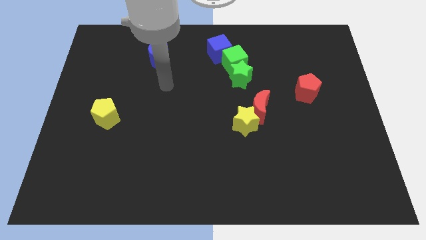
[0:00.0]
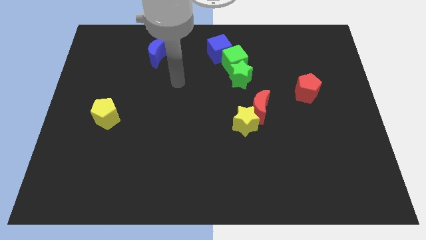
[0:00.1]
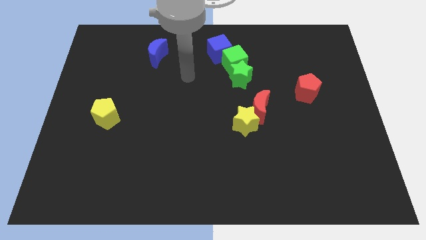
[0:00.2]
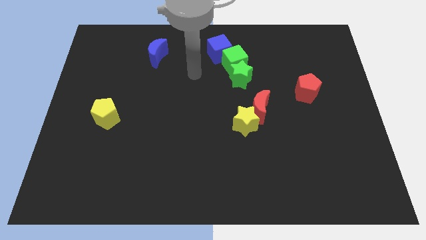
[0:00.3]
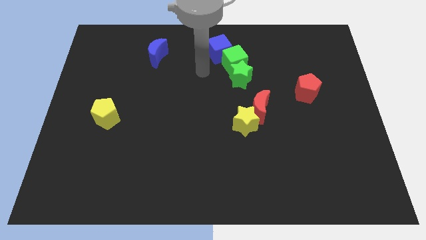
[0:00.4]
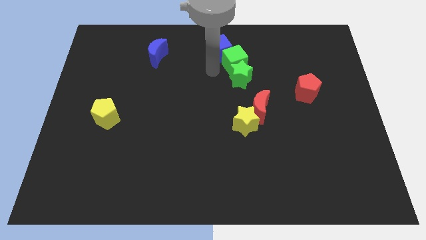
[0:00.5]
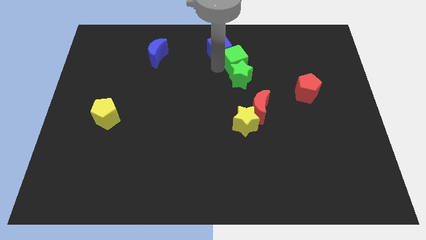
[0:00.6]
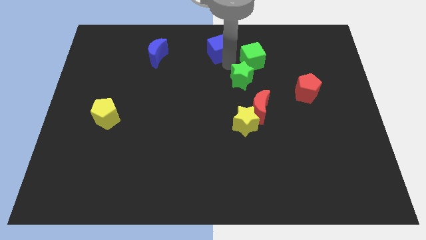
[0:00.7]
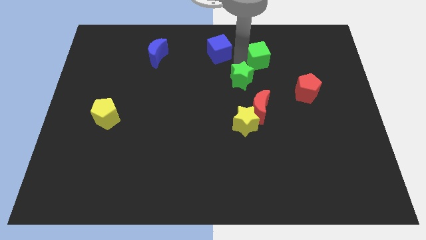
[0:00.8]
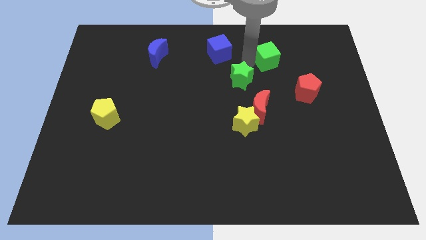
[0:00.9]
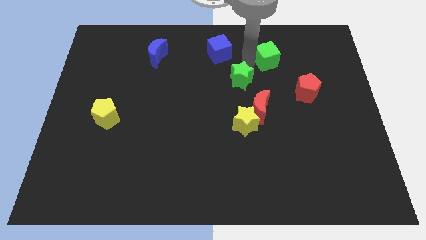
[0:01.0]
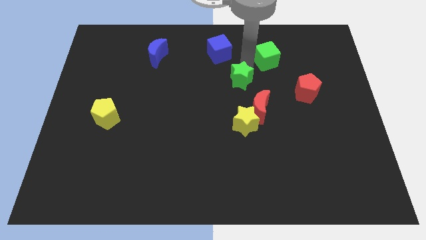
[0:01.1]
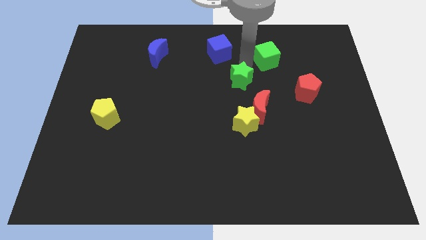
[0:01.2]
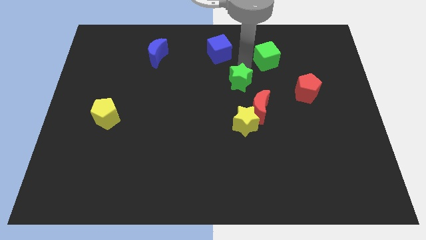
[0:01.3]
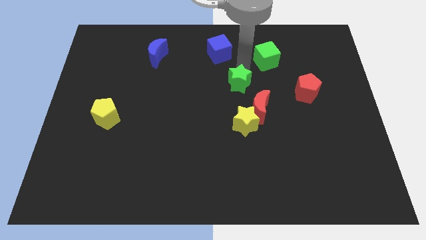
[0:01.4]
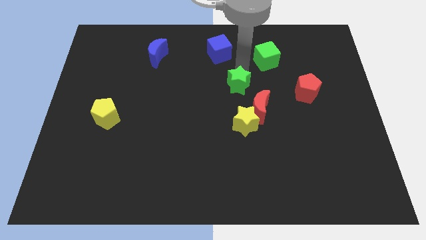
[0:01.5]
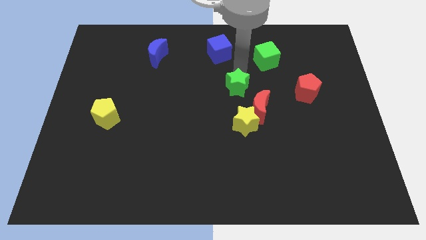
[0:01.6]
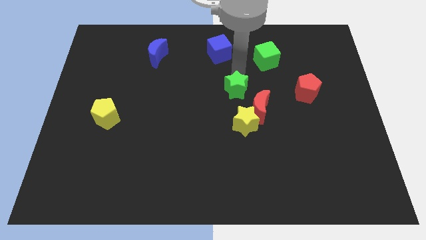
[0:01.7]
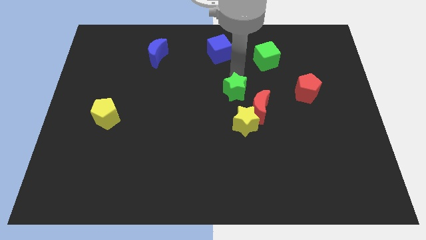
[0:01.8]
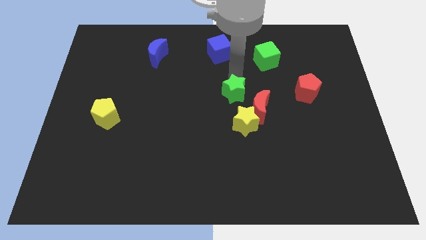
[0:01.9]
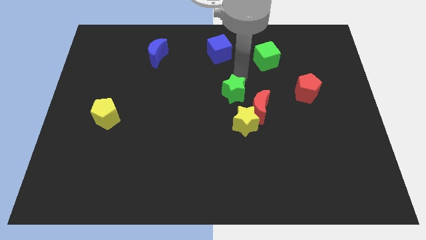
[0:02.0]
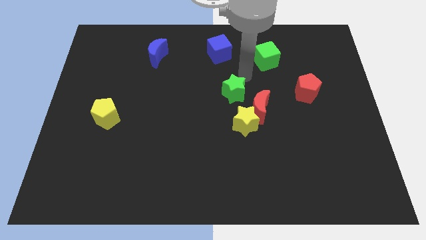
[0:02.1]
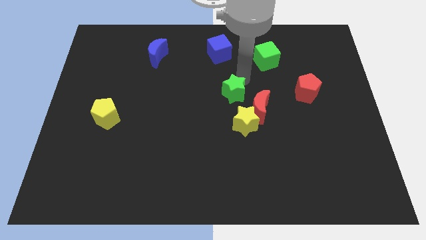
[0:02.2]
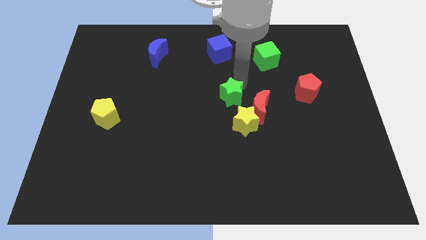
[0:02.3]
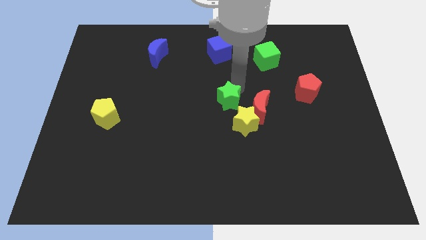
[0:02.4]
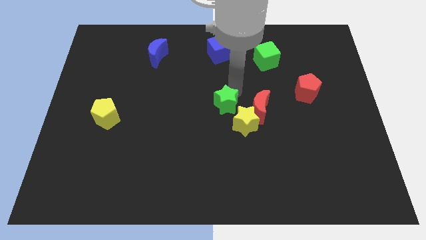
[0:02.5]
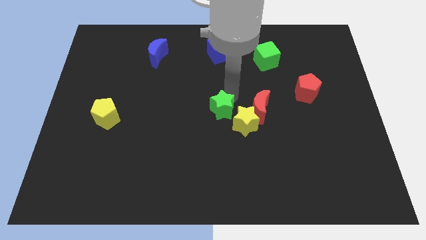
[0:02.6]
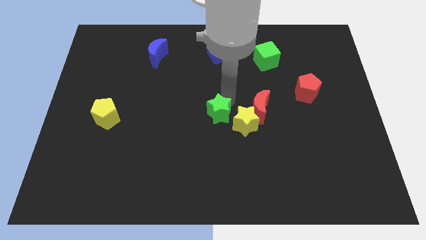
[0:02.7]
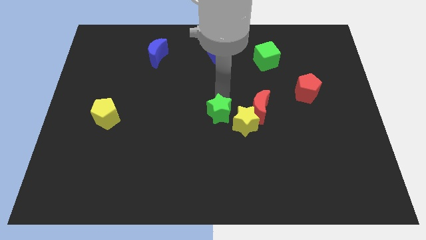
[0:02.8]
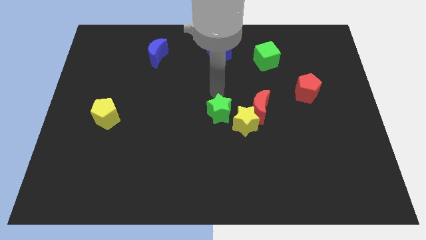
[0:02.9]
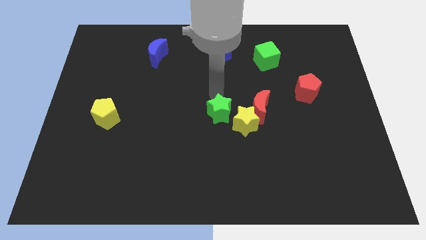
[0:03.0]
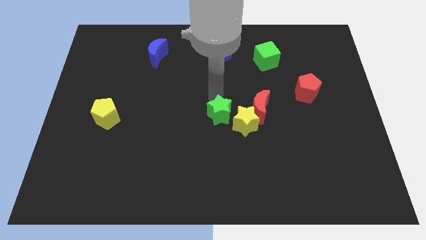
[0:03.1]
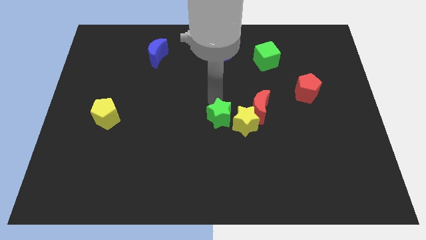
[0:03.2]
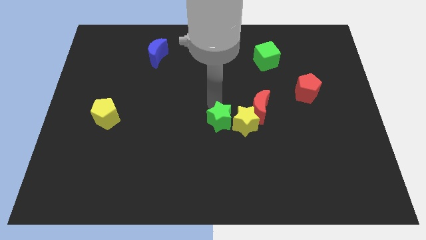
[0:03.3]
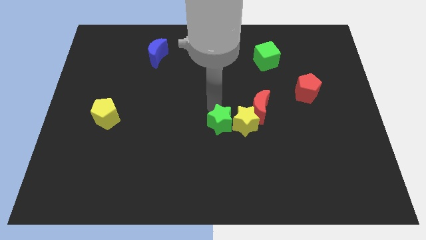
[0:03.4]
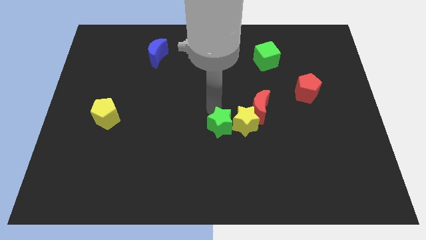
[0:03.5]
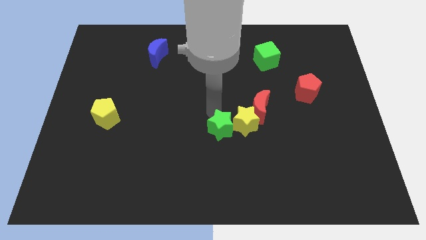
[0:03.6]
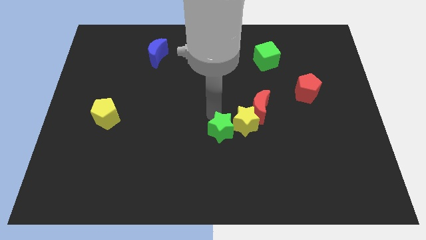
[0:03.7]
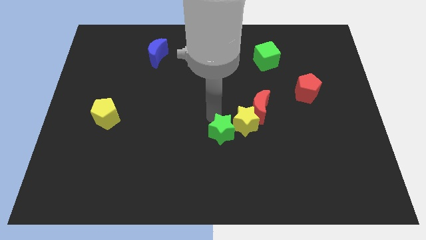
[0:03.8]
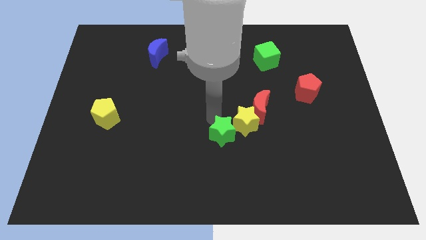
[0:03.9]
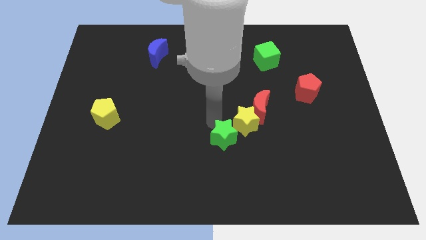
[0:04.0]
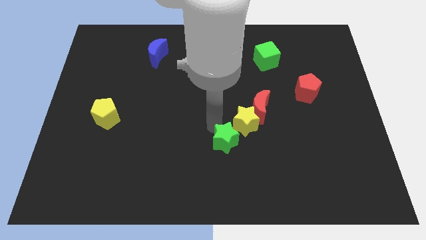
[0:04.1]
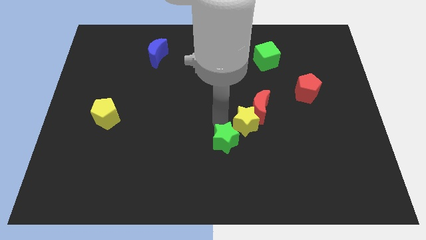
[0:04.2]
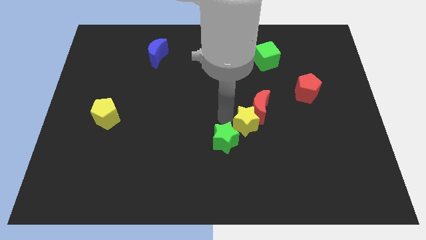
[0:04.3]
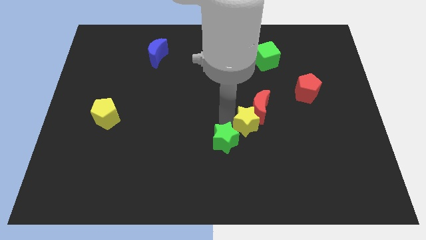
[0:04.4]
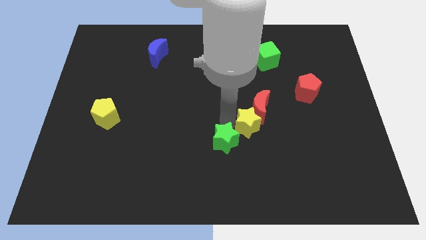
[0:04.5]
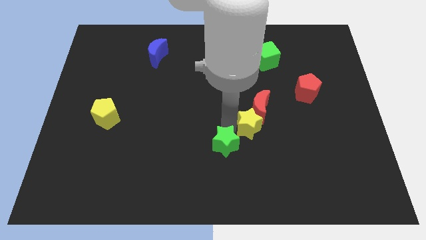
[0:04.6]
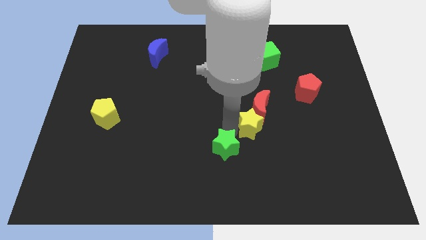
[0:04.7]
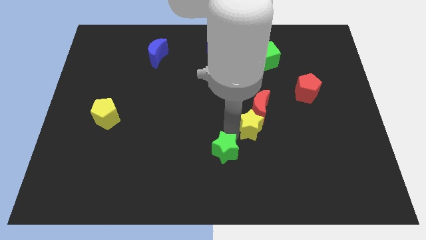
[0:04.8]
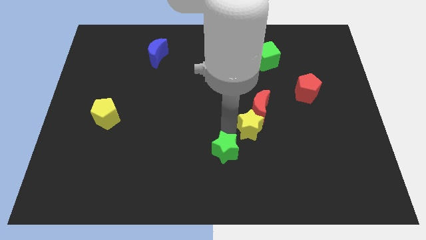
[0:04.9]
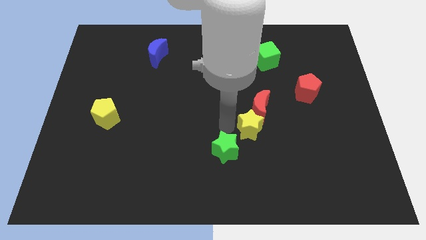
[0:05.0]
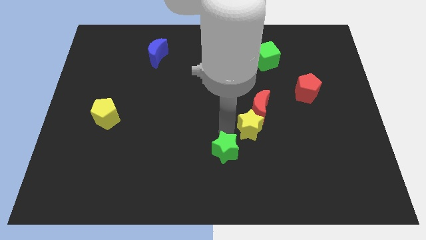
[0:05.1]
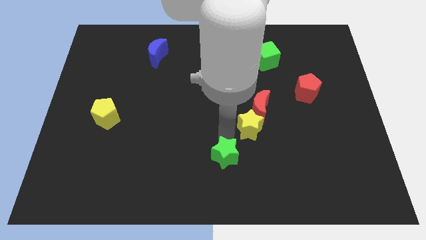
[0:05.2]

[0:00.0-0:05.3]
move the green star to the bottom

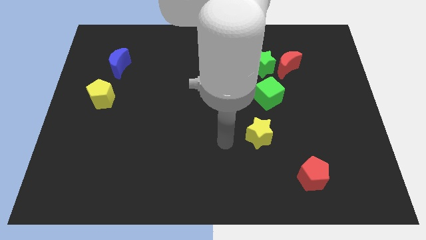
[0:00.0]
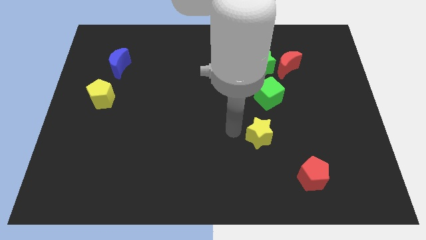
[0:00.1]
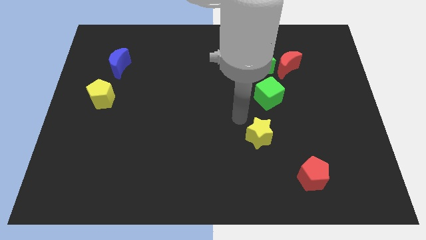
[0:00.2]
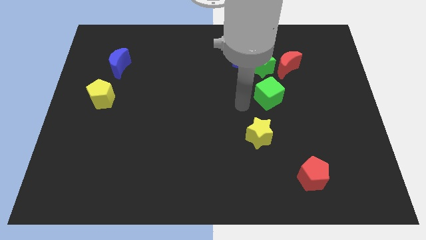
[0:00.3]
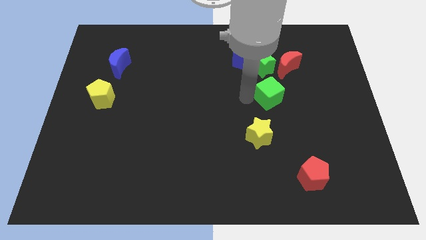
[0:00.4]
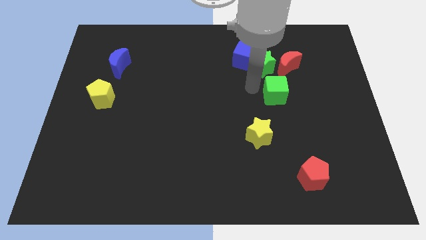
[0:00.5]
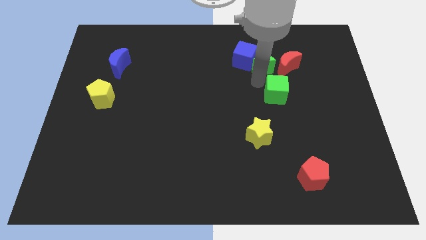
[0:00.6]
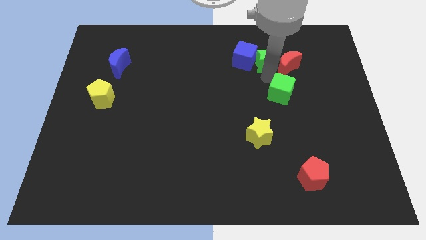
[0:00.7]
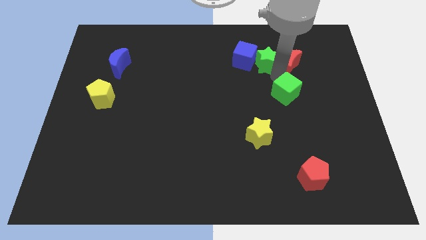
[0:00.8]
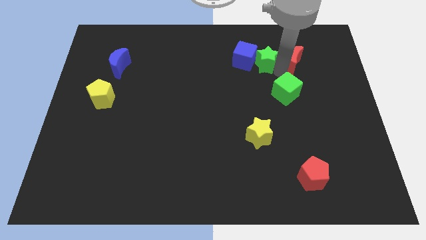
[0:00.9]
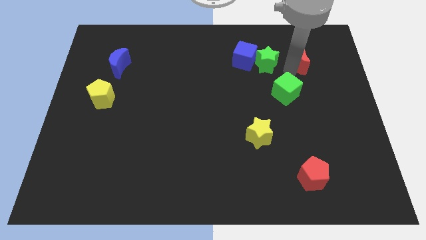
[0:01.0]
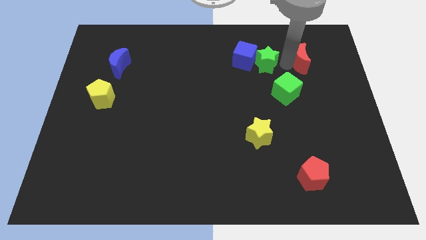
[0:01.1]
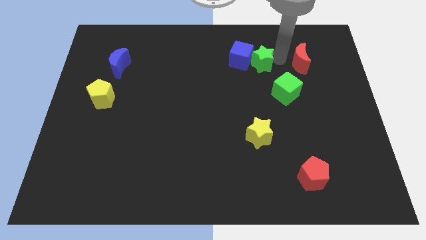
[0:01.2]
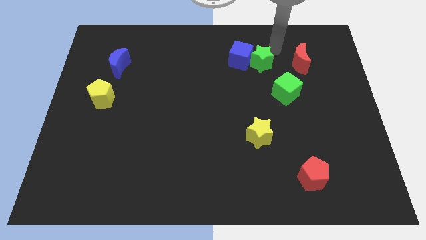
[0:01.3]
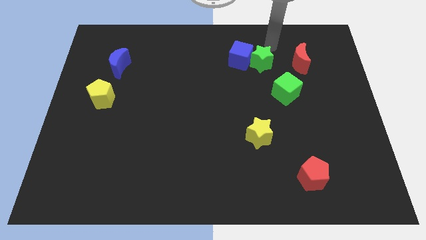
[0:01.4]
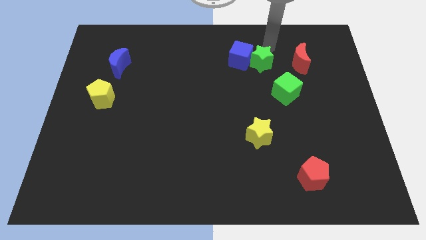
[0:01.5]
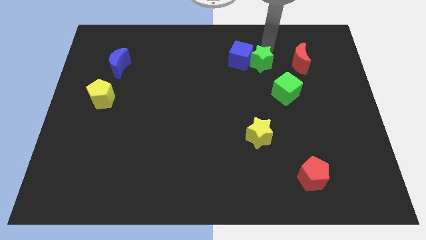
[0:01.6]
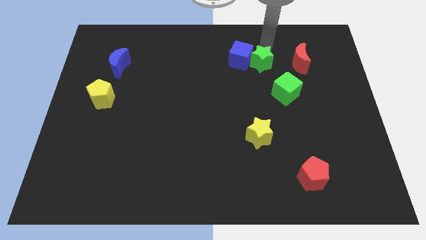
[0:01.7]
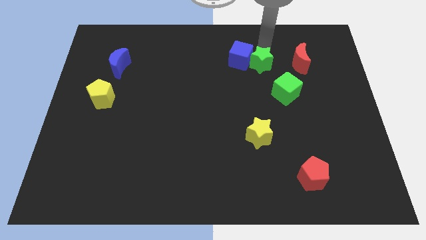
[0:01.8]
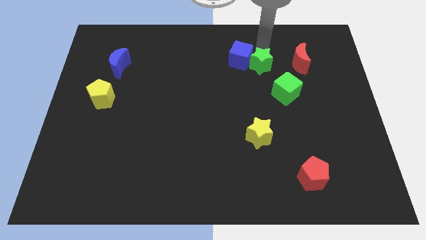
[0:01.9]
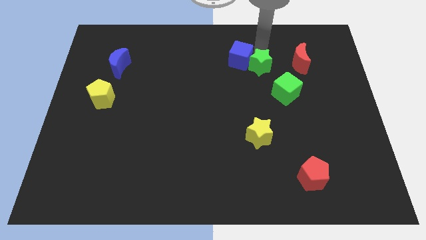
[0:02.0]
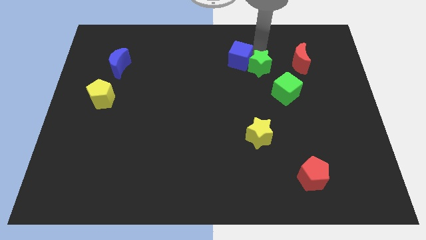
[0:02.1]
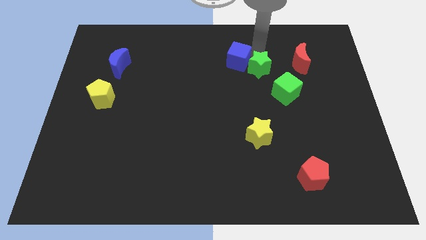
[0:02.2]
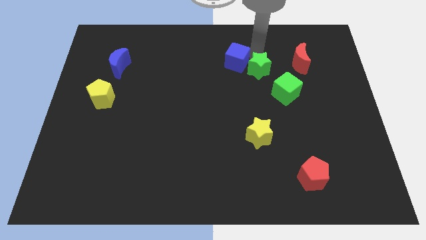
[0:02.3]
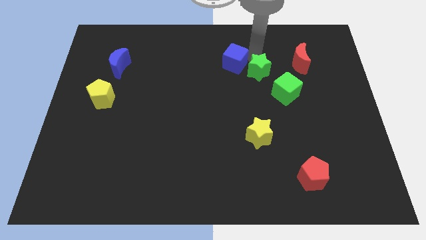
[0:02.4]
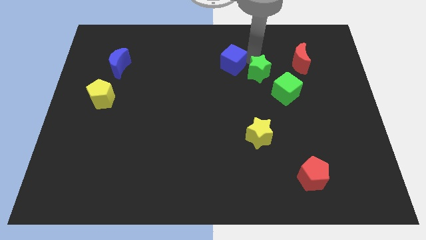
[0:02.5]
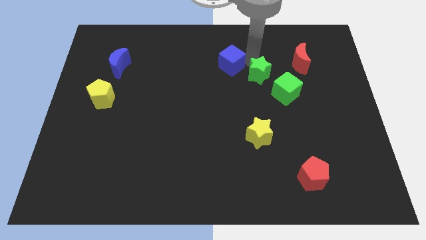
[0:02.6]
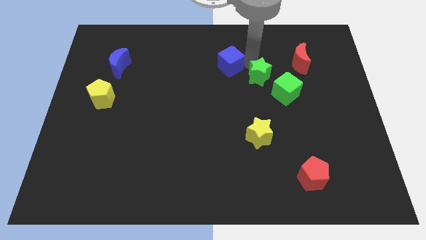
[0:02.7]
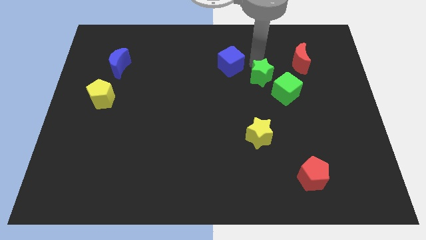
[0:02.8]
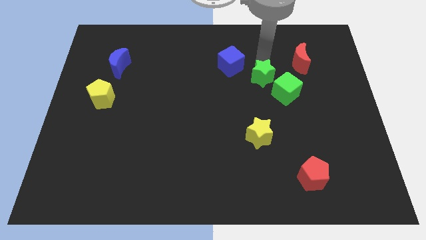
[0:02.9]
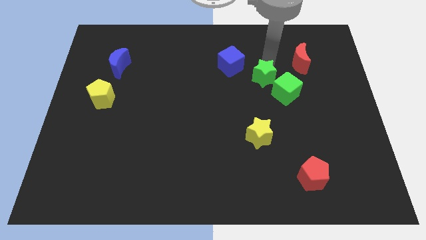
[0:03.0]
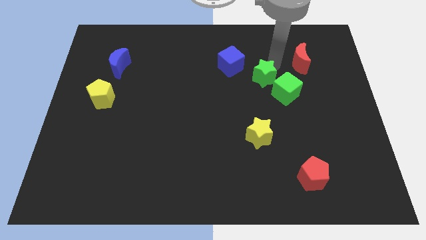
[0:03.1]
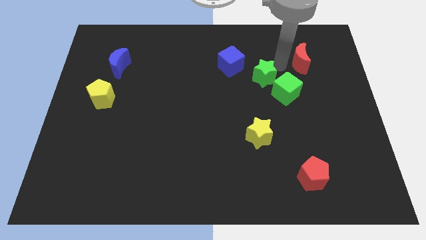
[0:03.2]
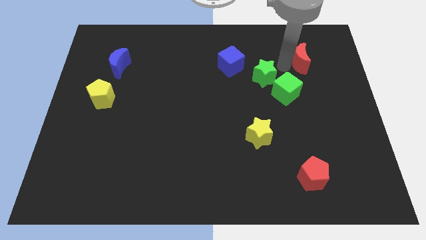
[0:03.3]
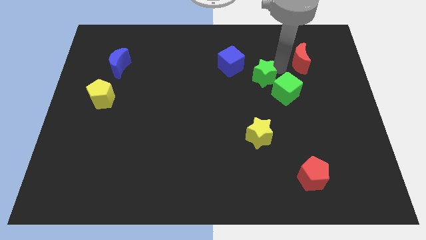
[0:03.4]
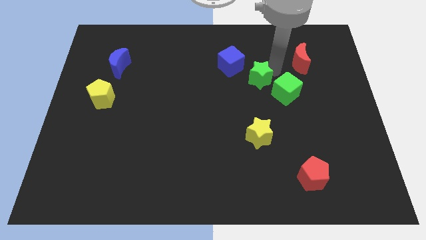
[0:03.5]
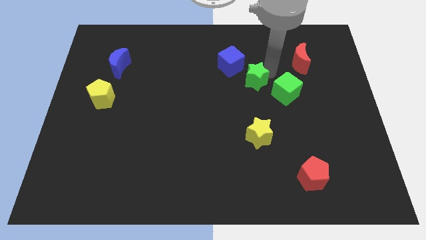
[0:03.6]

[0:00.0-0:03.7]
move the green star to the center of the board
